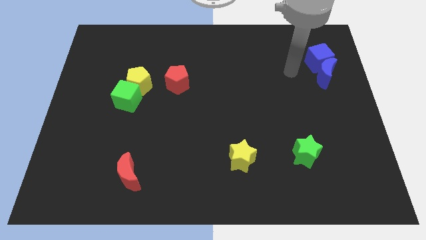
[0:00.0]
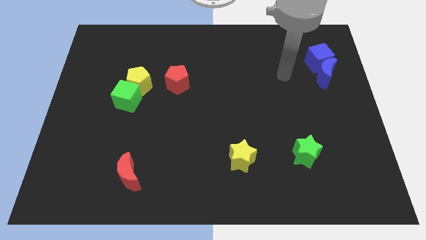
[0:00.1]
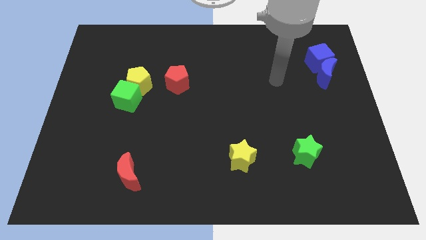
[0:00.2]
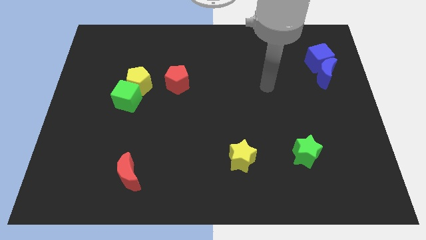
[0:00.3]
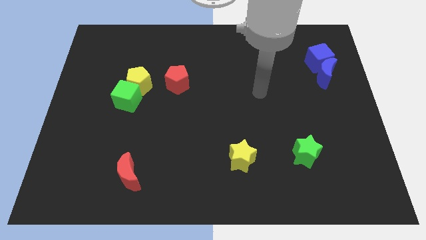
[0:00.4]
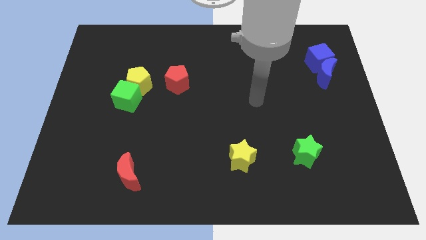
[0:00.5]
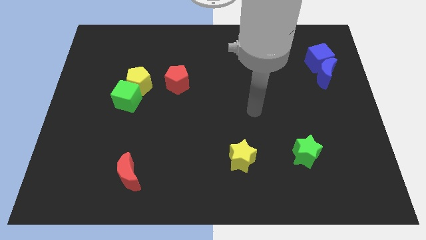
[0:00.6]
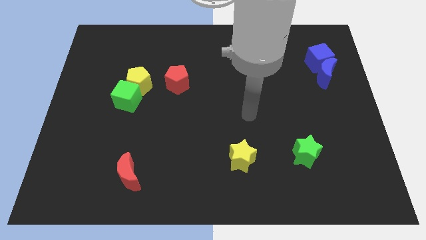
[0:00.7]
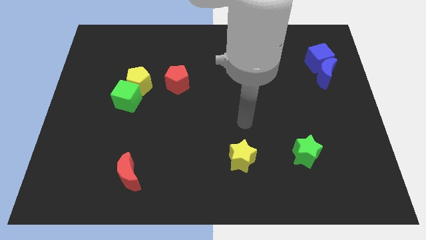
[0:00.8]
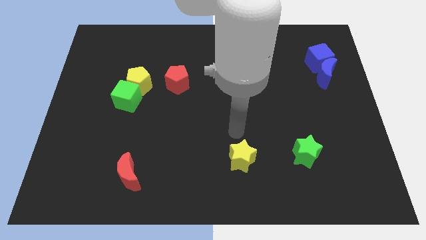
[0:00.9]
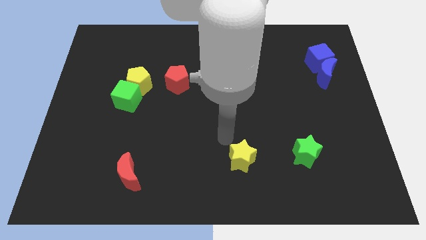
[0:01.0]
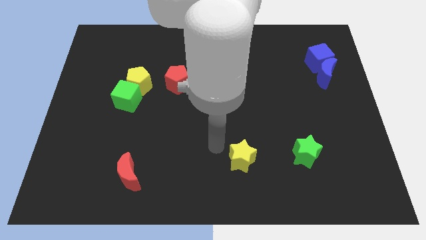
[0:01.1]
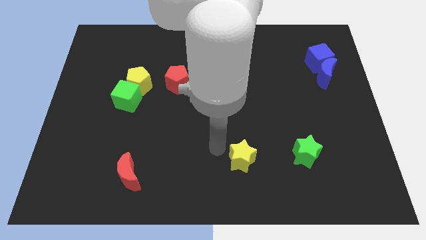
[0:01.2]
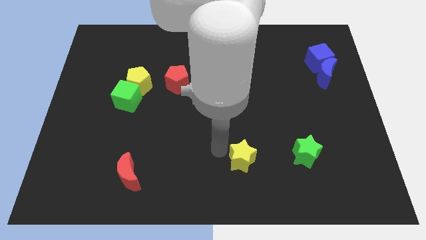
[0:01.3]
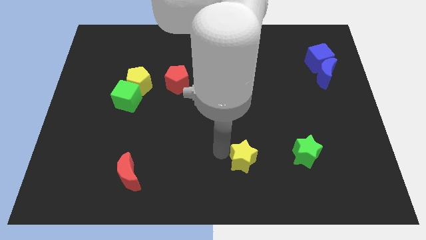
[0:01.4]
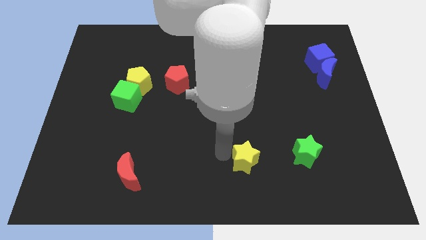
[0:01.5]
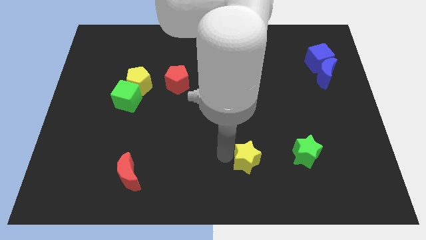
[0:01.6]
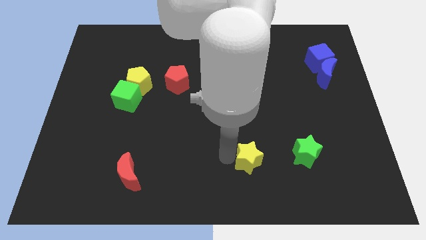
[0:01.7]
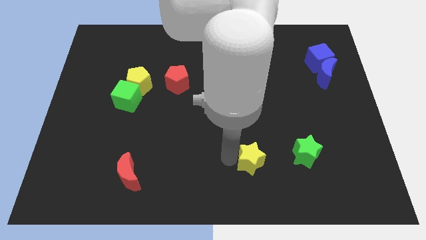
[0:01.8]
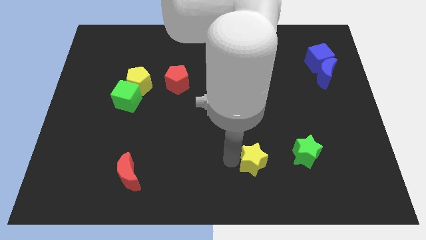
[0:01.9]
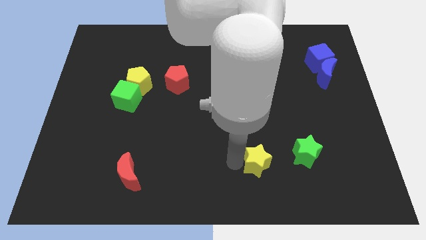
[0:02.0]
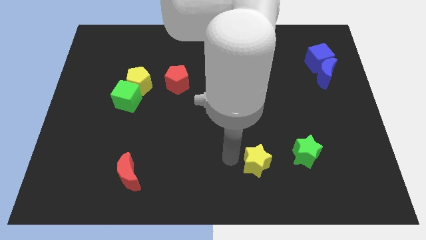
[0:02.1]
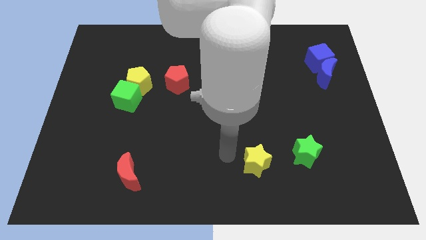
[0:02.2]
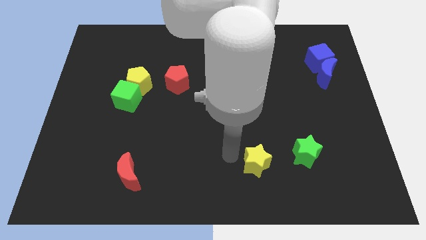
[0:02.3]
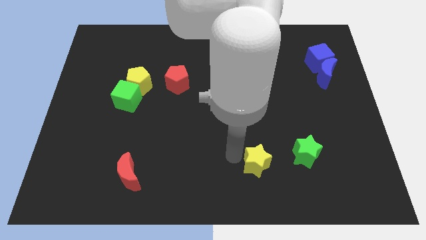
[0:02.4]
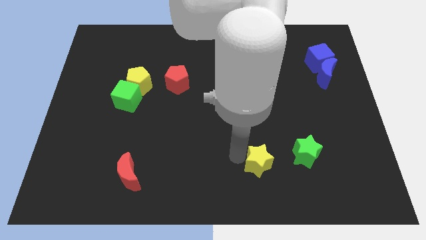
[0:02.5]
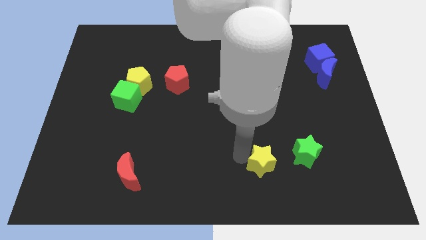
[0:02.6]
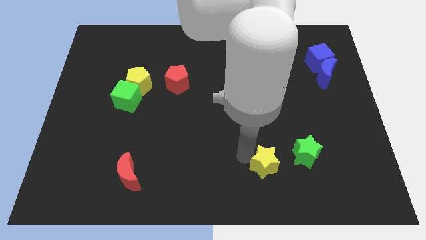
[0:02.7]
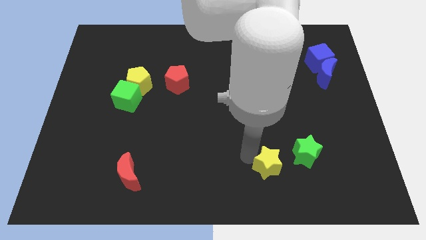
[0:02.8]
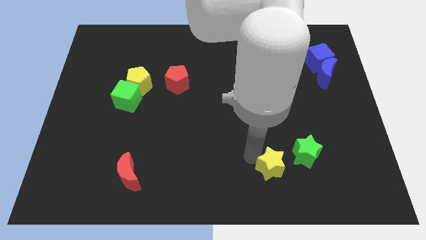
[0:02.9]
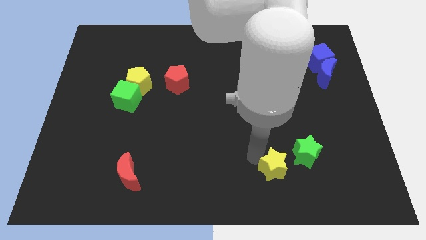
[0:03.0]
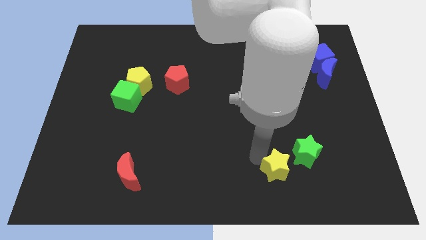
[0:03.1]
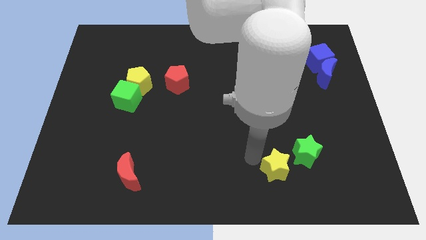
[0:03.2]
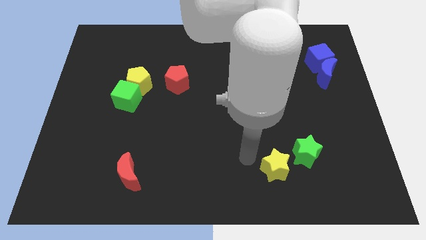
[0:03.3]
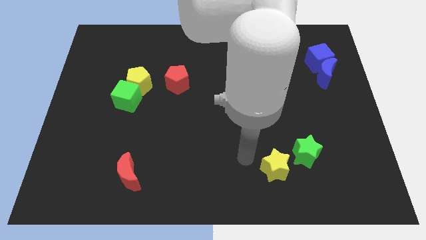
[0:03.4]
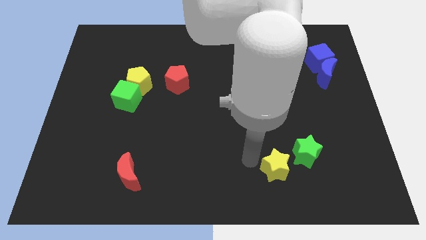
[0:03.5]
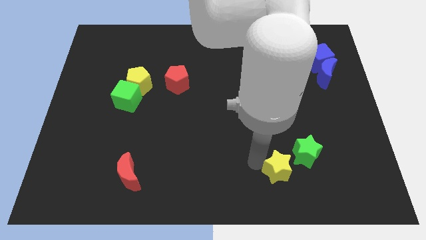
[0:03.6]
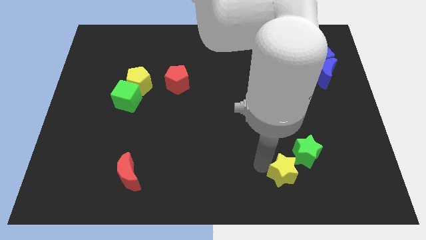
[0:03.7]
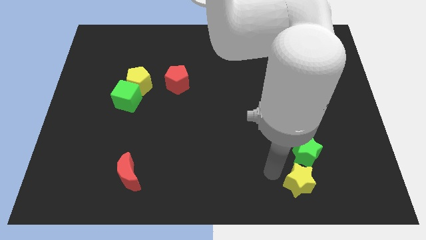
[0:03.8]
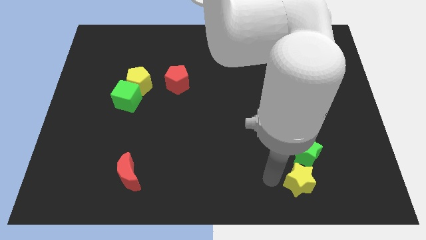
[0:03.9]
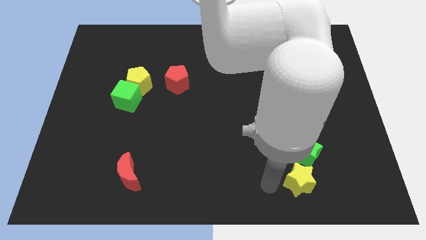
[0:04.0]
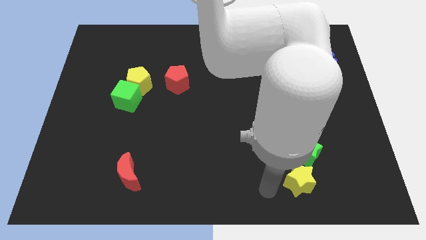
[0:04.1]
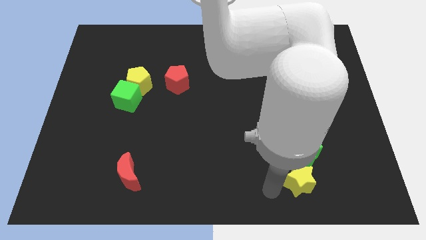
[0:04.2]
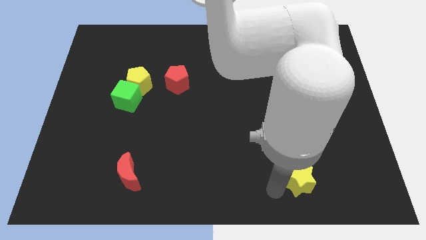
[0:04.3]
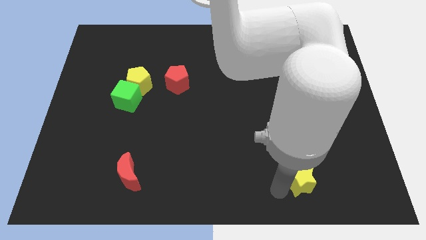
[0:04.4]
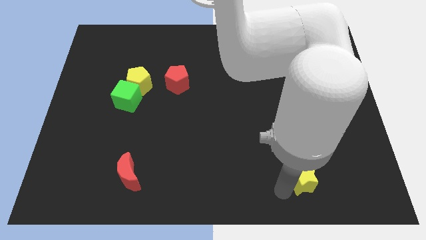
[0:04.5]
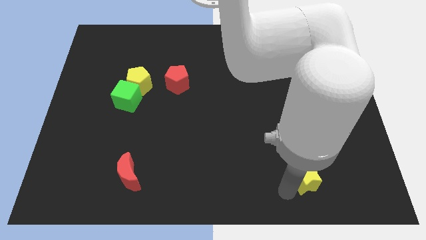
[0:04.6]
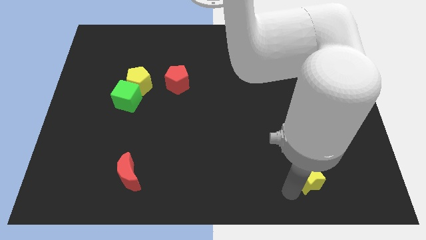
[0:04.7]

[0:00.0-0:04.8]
push the yellow star to the bottom right of the green star

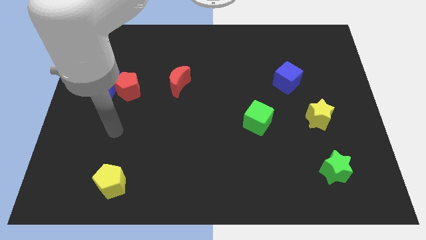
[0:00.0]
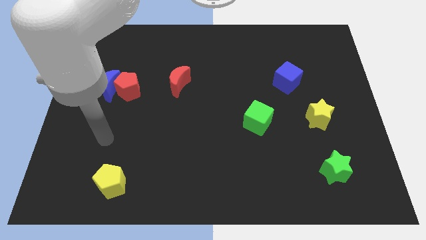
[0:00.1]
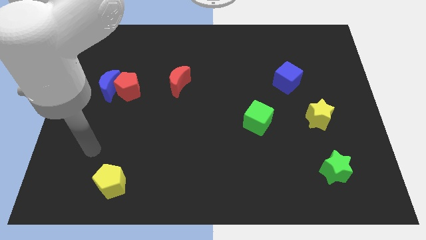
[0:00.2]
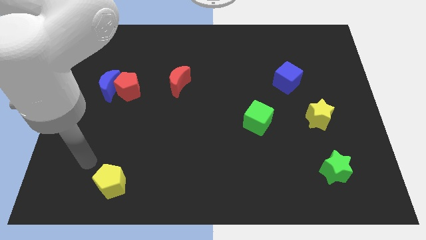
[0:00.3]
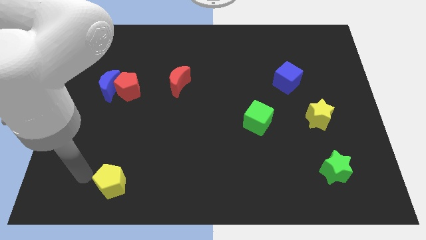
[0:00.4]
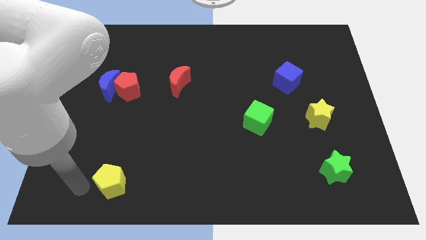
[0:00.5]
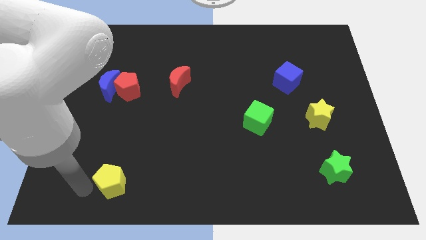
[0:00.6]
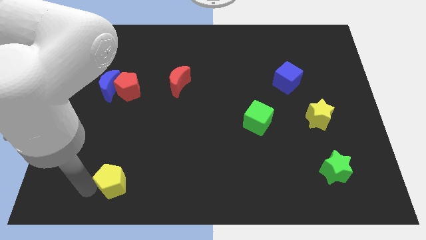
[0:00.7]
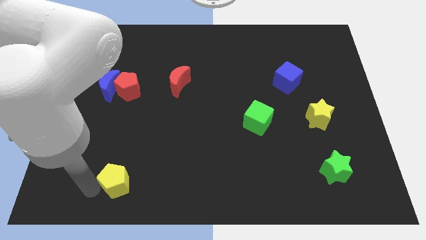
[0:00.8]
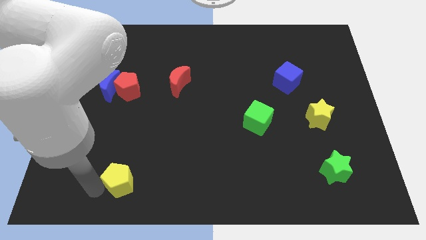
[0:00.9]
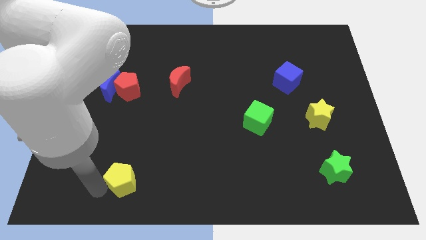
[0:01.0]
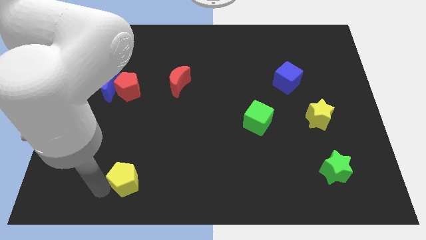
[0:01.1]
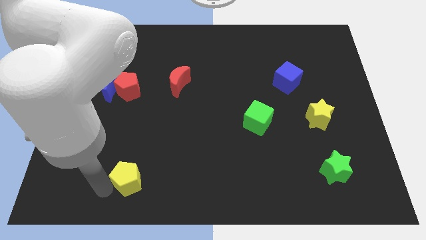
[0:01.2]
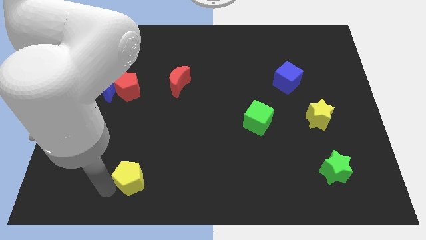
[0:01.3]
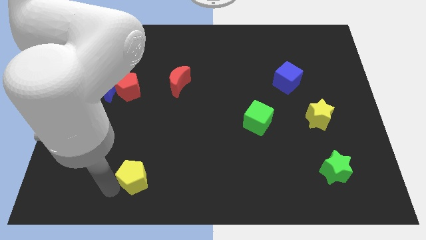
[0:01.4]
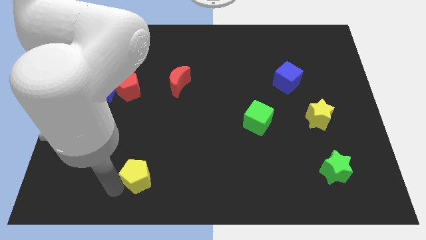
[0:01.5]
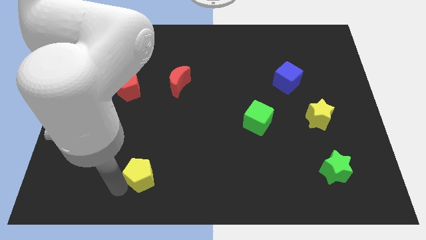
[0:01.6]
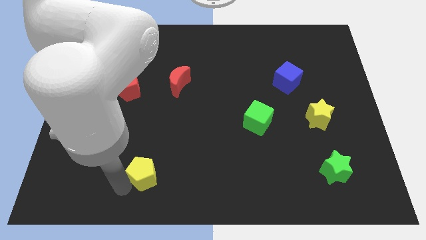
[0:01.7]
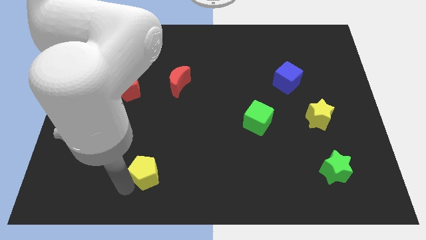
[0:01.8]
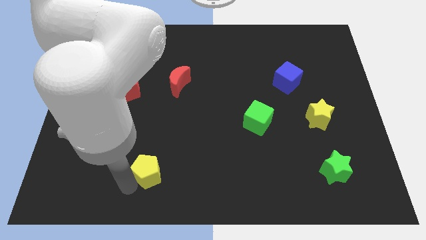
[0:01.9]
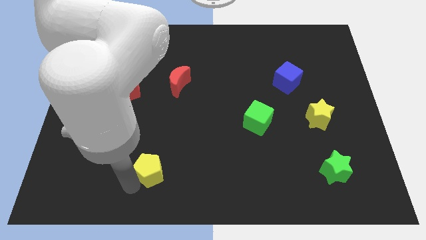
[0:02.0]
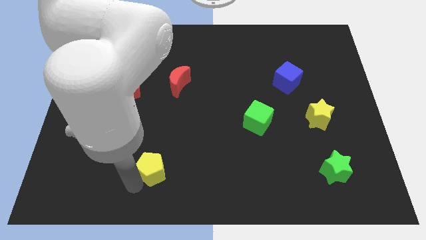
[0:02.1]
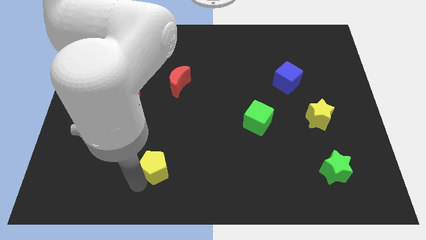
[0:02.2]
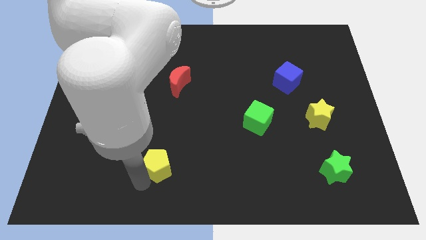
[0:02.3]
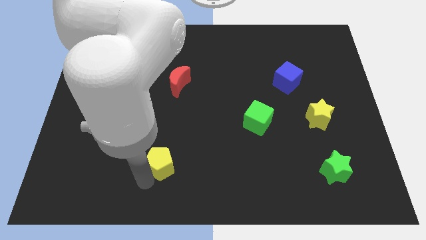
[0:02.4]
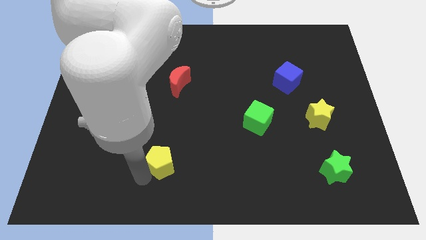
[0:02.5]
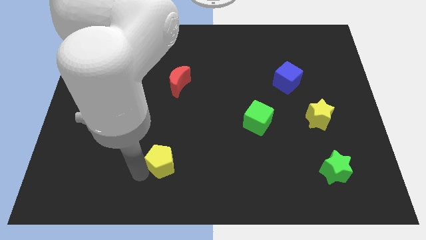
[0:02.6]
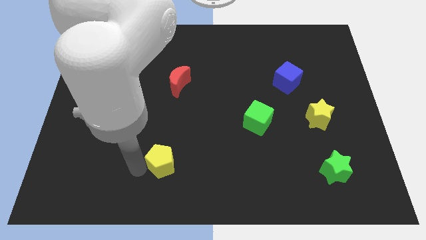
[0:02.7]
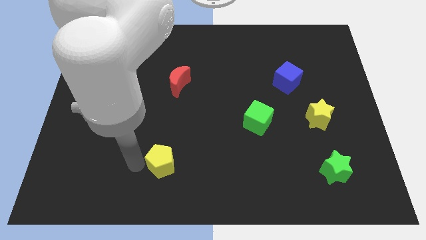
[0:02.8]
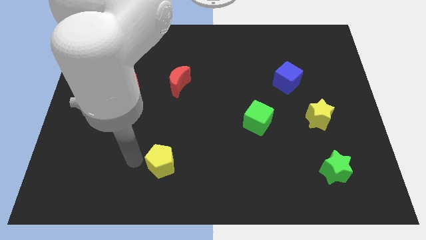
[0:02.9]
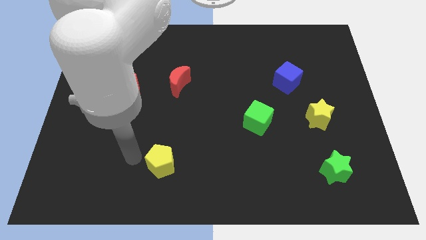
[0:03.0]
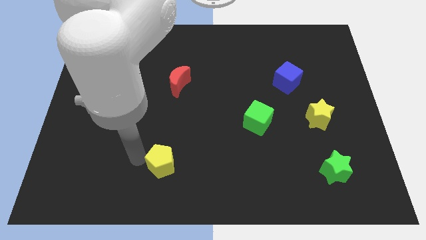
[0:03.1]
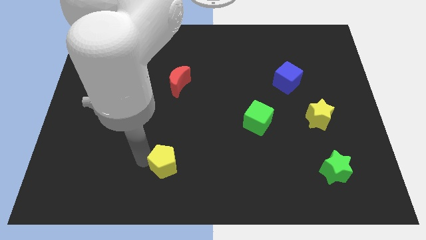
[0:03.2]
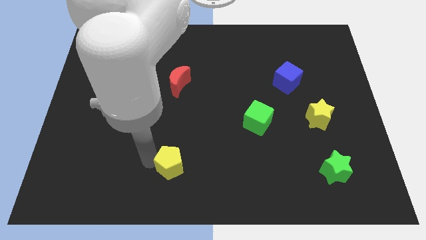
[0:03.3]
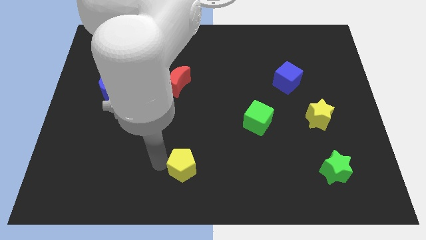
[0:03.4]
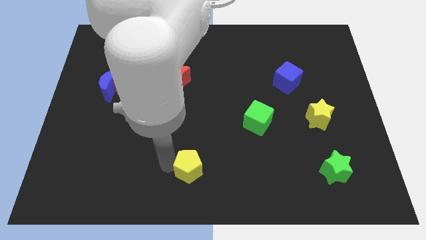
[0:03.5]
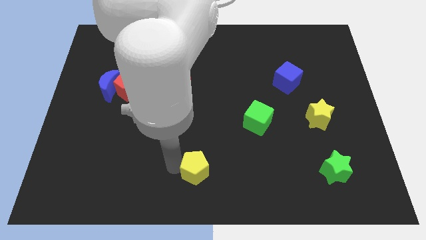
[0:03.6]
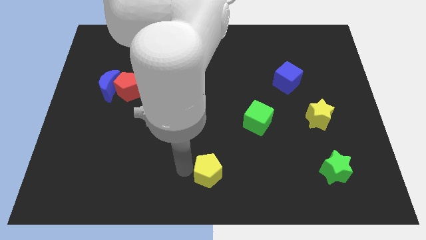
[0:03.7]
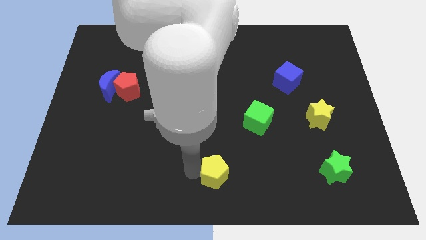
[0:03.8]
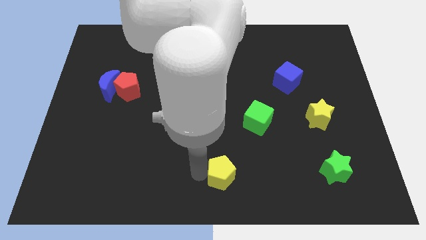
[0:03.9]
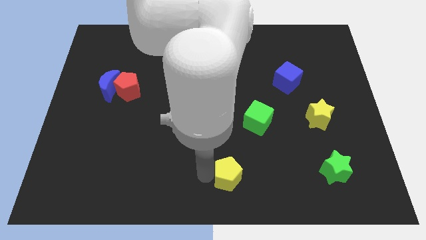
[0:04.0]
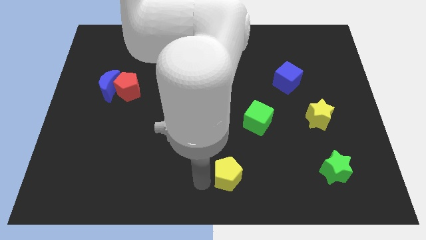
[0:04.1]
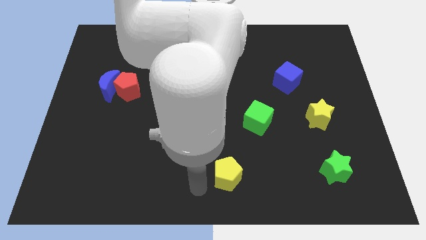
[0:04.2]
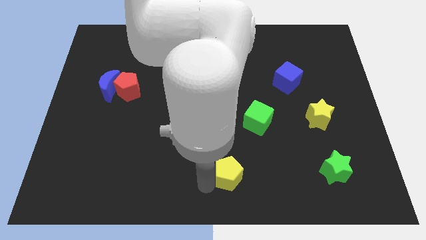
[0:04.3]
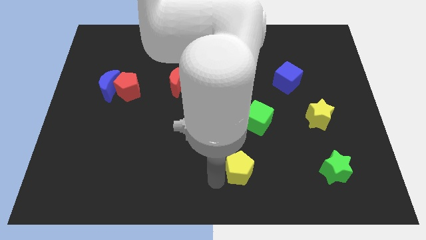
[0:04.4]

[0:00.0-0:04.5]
move the yellow pentagon below the green cube
